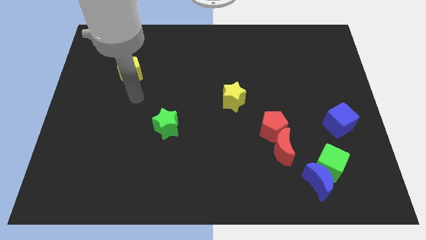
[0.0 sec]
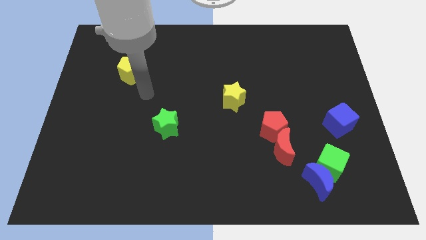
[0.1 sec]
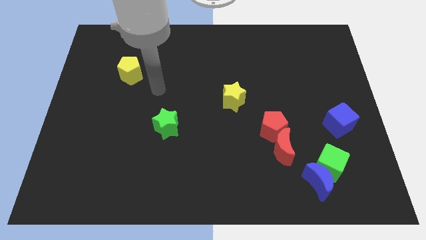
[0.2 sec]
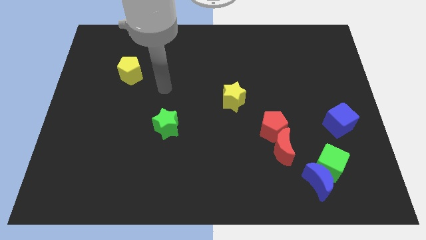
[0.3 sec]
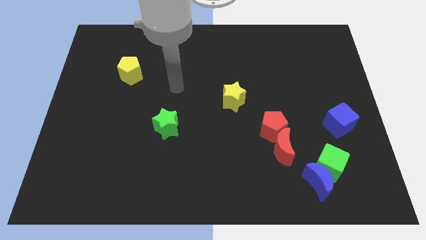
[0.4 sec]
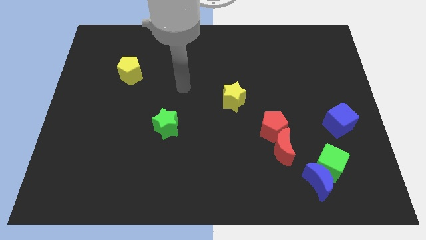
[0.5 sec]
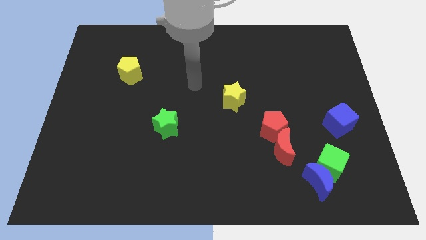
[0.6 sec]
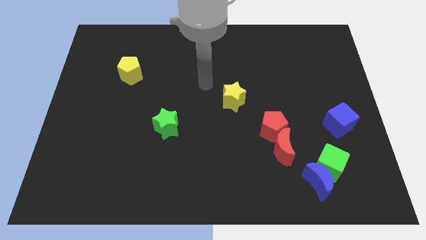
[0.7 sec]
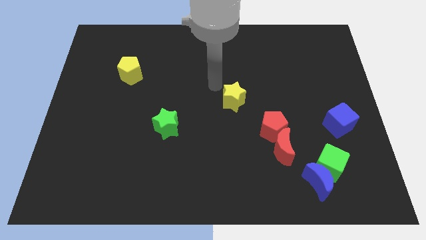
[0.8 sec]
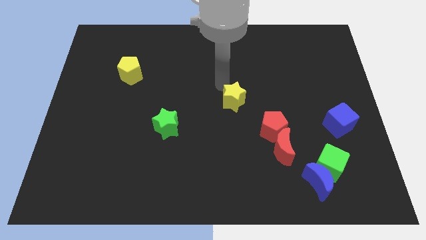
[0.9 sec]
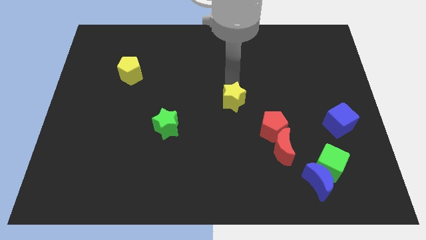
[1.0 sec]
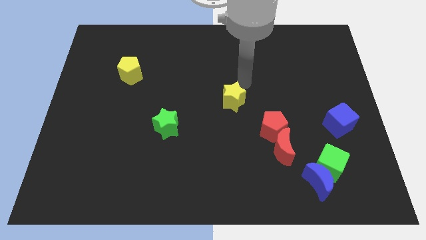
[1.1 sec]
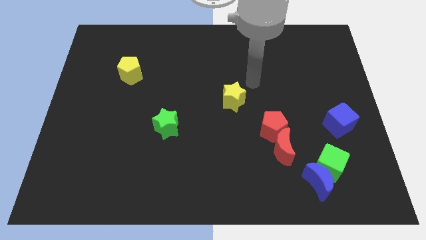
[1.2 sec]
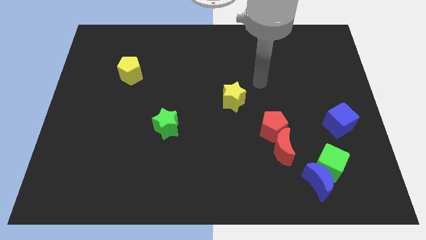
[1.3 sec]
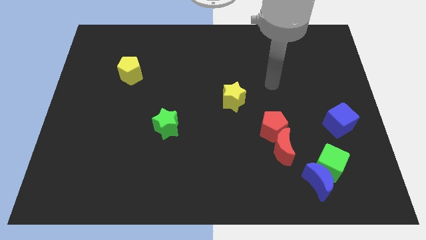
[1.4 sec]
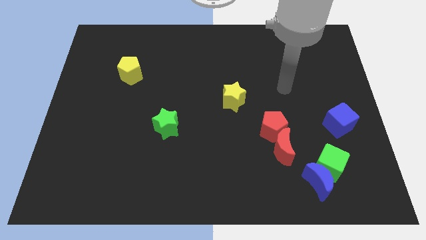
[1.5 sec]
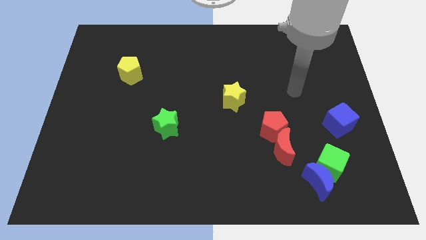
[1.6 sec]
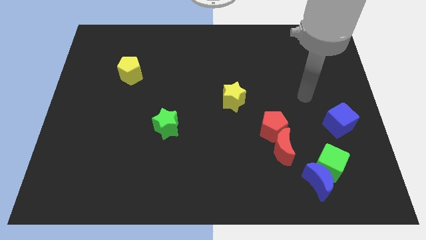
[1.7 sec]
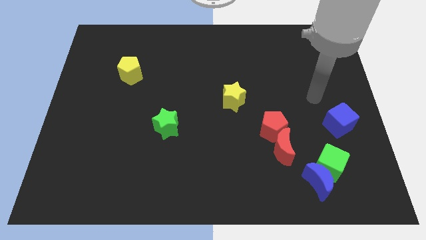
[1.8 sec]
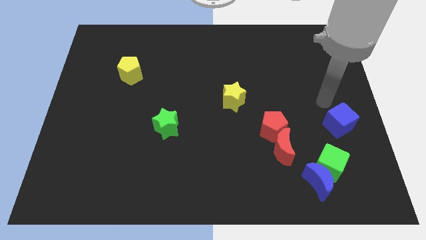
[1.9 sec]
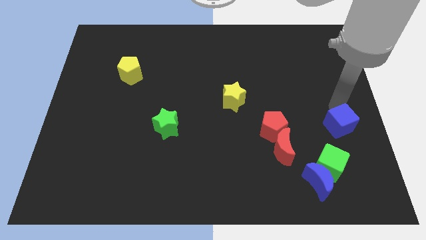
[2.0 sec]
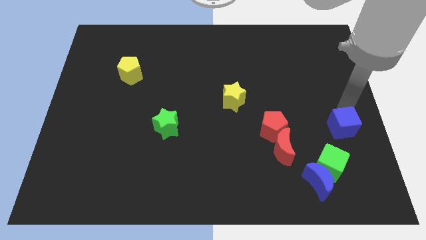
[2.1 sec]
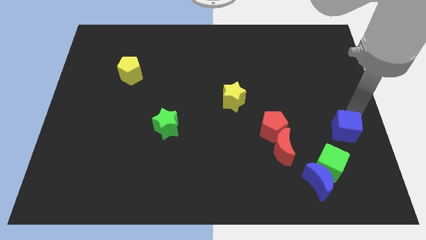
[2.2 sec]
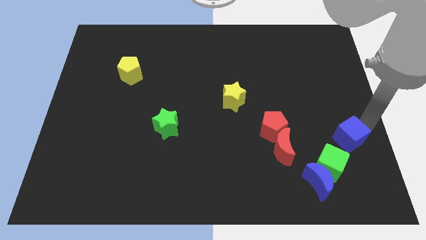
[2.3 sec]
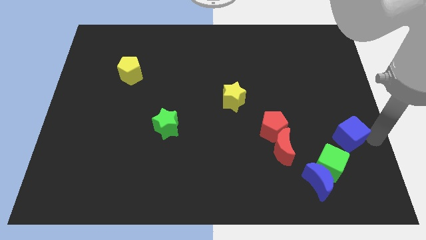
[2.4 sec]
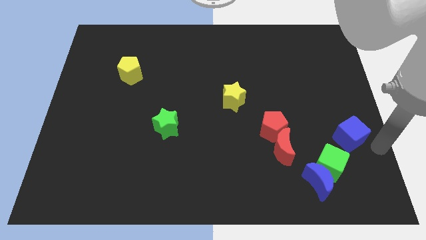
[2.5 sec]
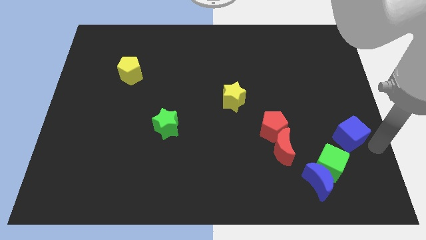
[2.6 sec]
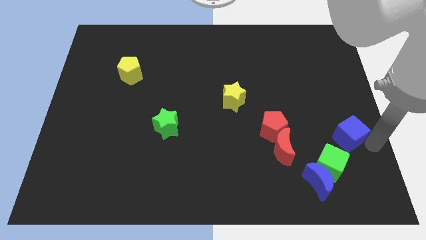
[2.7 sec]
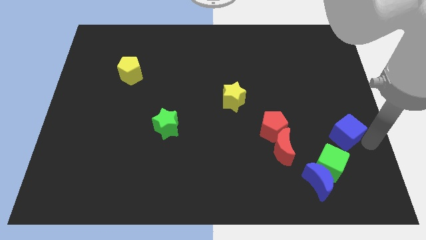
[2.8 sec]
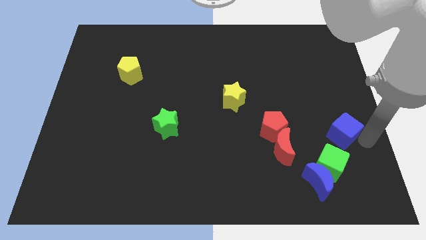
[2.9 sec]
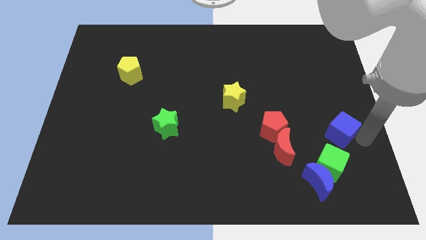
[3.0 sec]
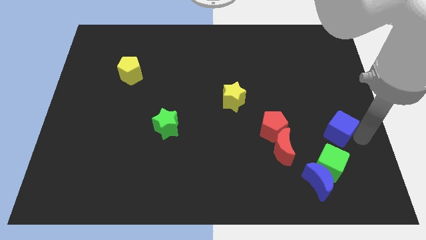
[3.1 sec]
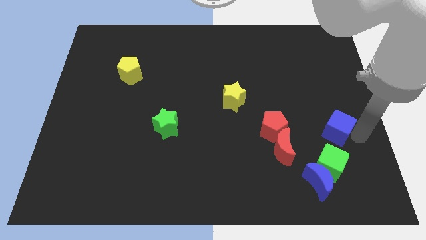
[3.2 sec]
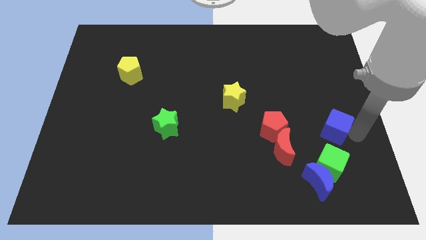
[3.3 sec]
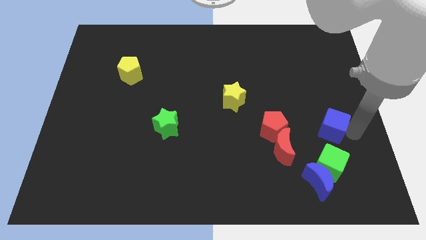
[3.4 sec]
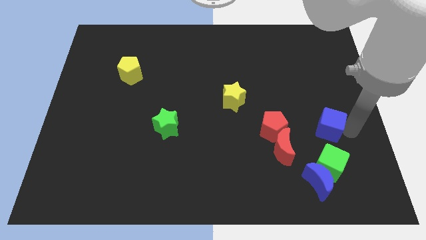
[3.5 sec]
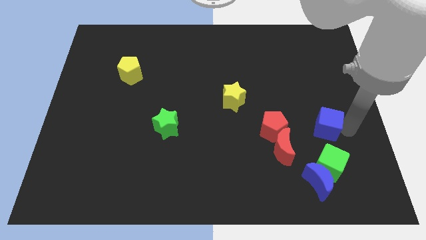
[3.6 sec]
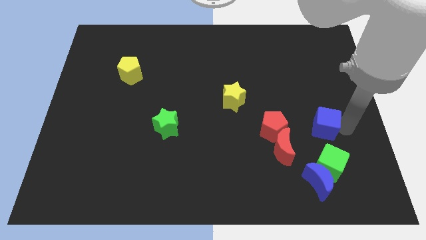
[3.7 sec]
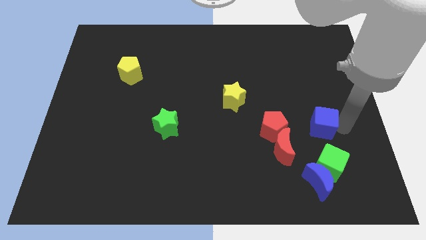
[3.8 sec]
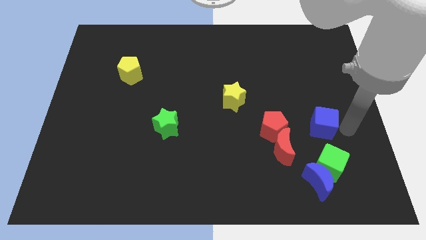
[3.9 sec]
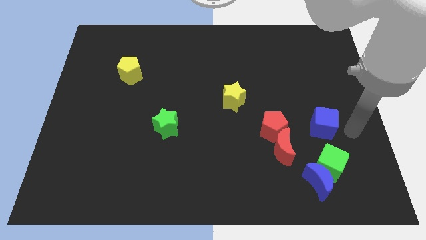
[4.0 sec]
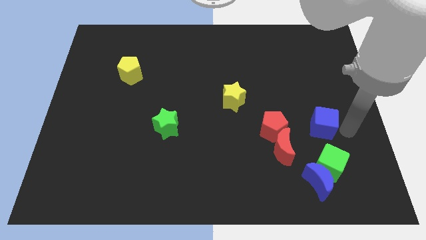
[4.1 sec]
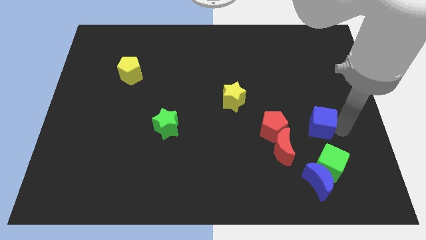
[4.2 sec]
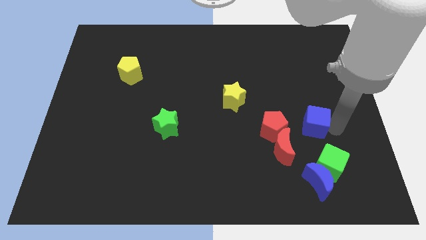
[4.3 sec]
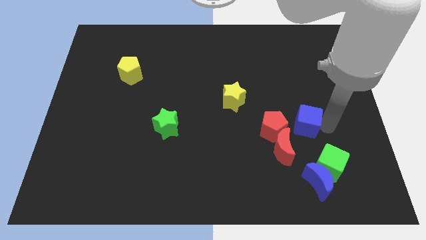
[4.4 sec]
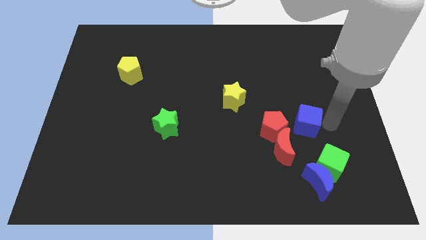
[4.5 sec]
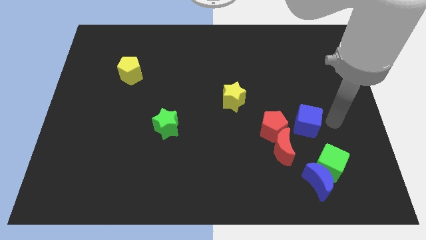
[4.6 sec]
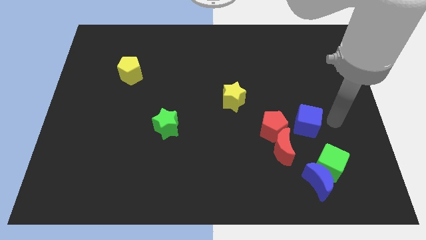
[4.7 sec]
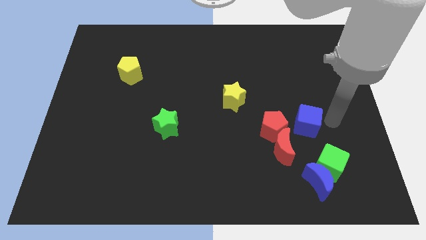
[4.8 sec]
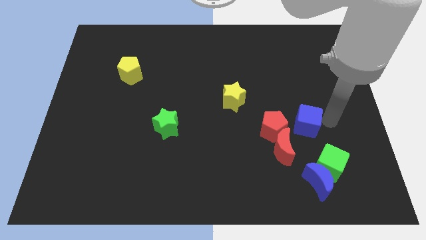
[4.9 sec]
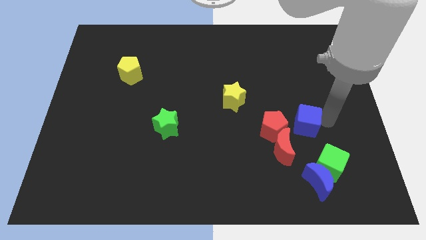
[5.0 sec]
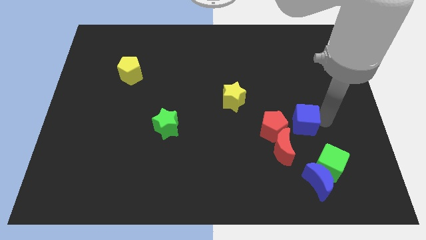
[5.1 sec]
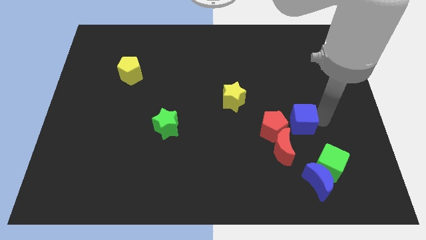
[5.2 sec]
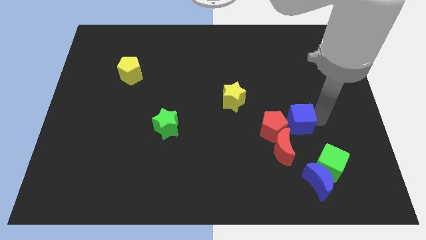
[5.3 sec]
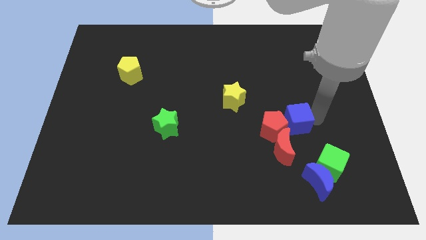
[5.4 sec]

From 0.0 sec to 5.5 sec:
put the blue cube to the red pentagon

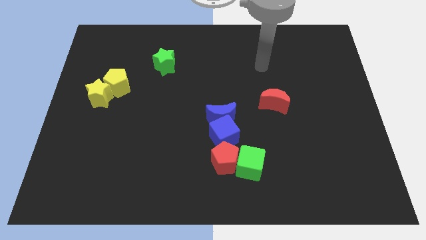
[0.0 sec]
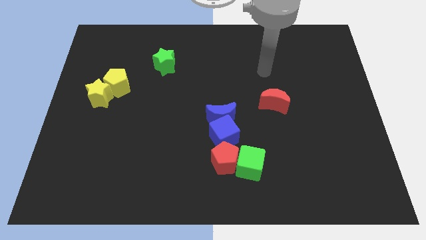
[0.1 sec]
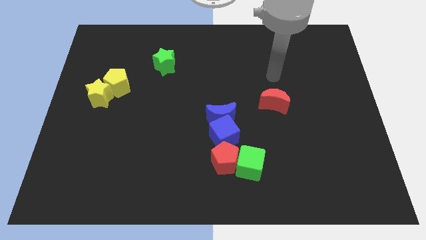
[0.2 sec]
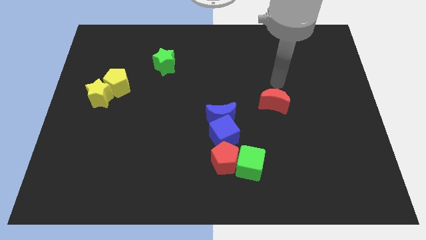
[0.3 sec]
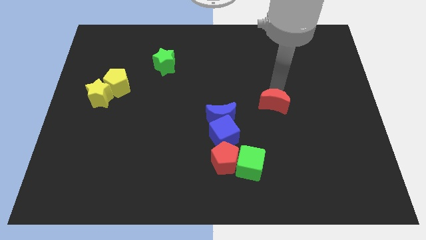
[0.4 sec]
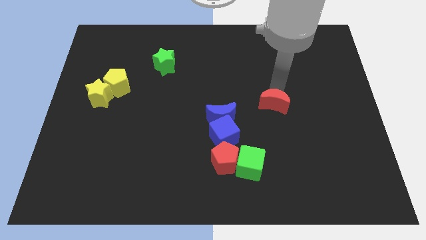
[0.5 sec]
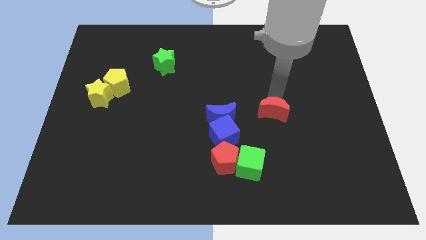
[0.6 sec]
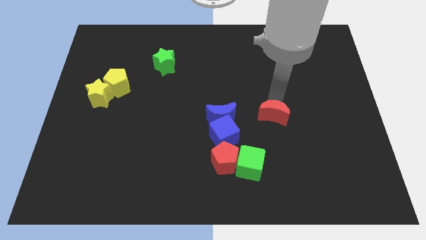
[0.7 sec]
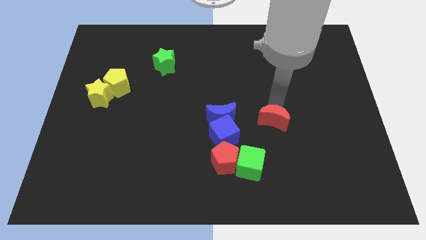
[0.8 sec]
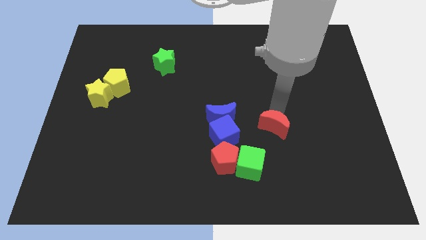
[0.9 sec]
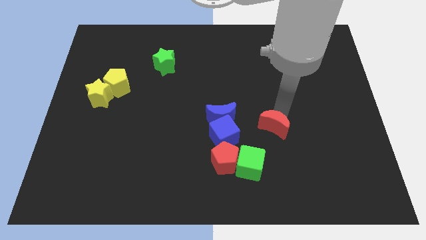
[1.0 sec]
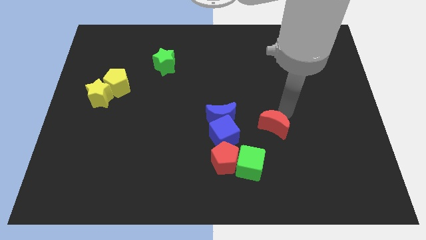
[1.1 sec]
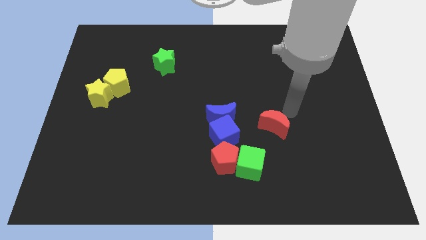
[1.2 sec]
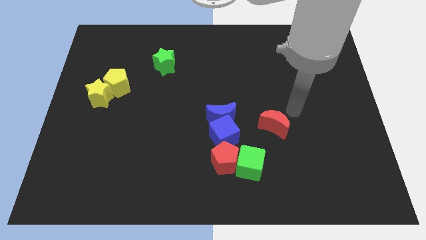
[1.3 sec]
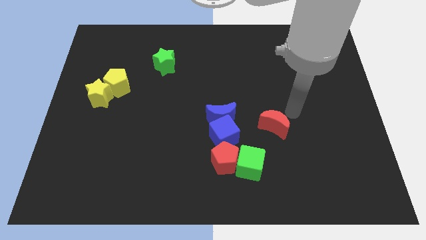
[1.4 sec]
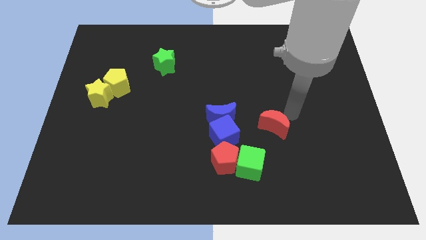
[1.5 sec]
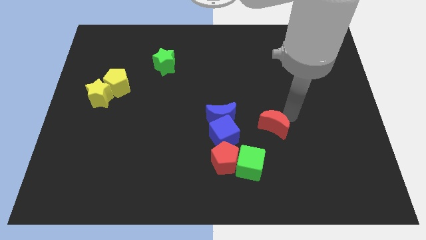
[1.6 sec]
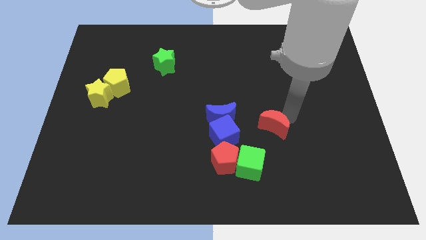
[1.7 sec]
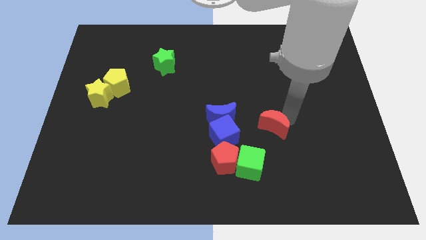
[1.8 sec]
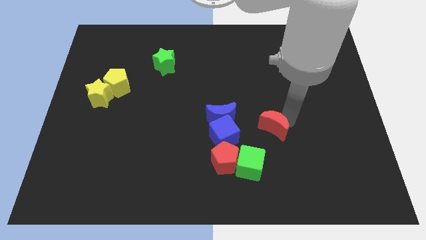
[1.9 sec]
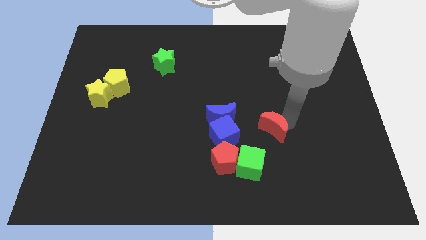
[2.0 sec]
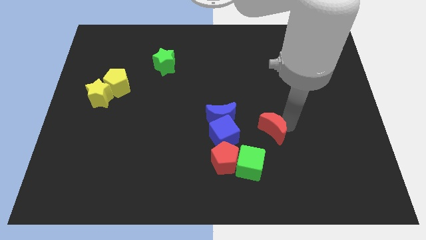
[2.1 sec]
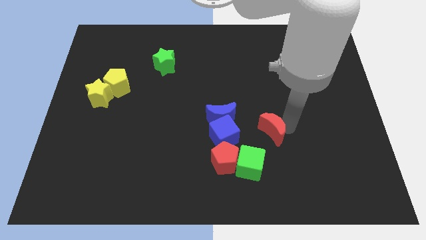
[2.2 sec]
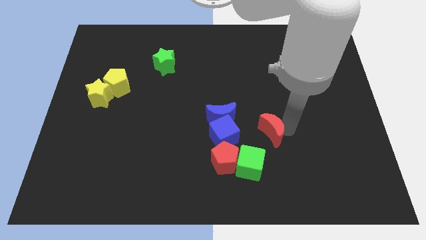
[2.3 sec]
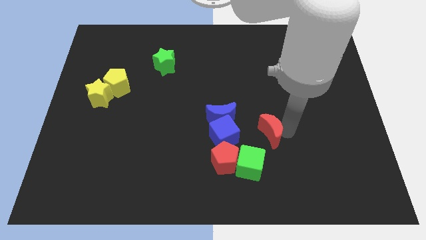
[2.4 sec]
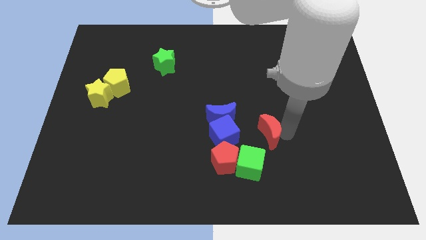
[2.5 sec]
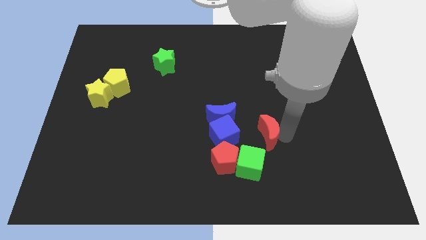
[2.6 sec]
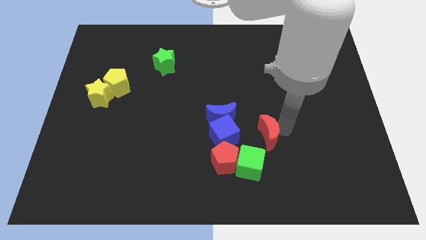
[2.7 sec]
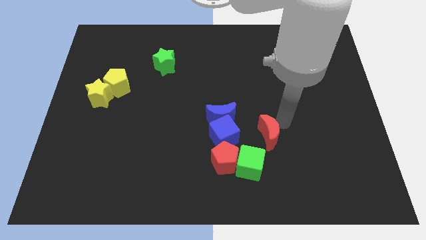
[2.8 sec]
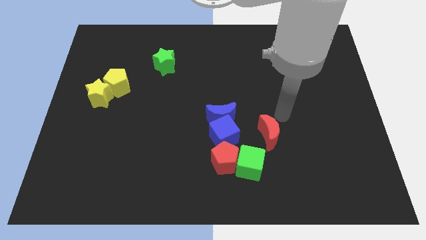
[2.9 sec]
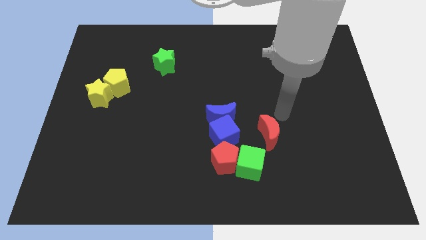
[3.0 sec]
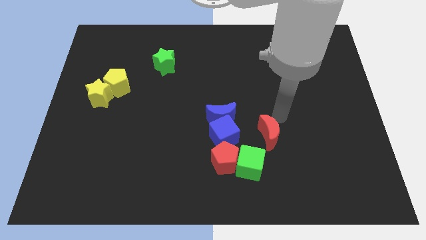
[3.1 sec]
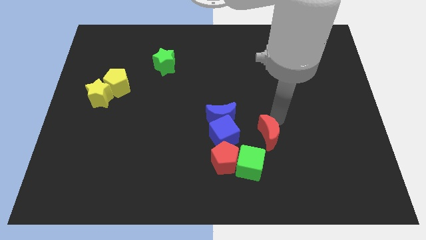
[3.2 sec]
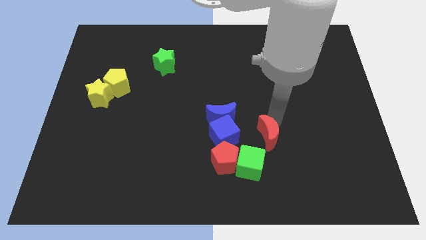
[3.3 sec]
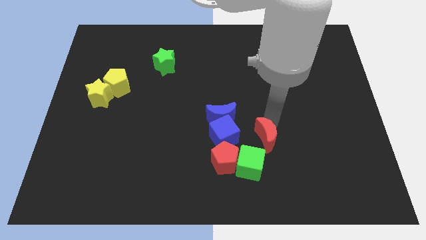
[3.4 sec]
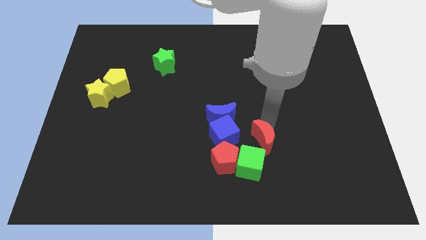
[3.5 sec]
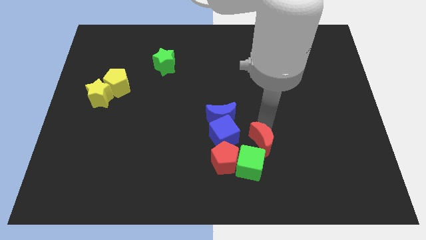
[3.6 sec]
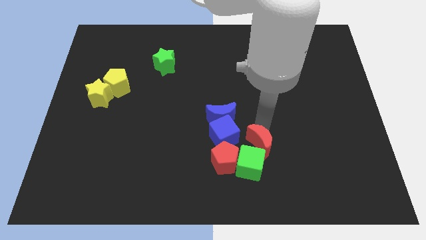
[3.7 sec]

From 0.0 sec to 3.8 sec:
move the red moon close to the green cube
